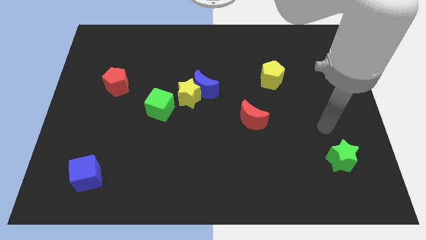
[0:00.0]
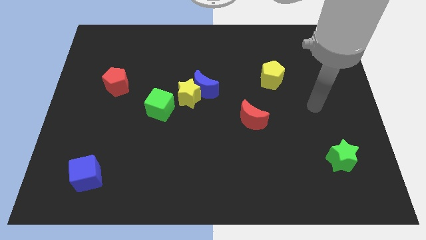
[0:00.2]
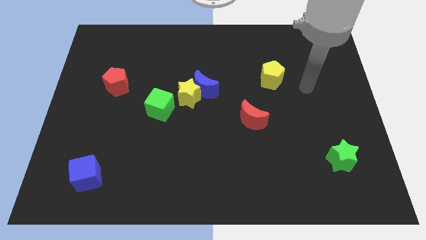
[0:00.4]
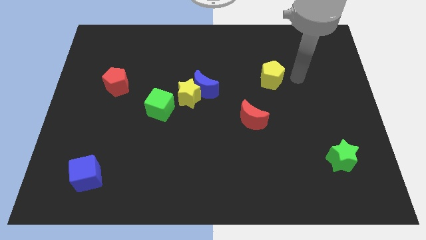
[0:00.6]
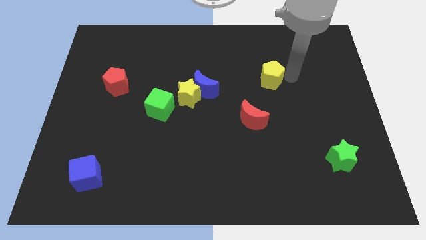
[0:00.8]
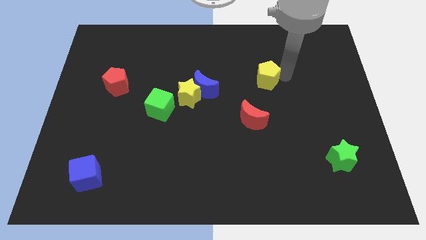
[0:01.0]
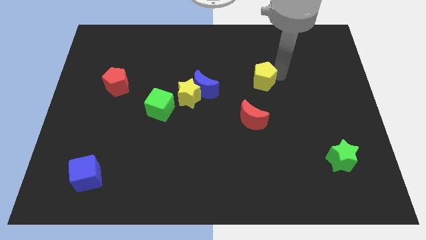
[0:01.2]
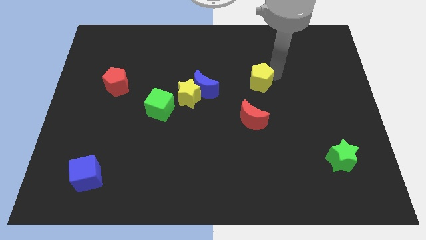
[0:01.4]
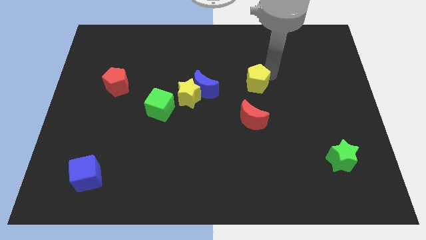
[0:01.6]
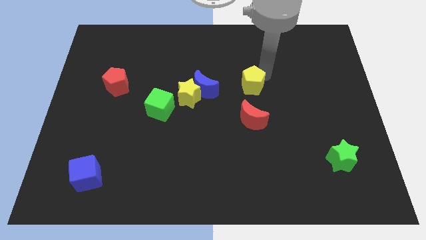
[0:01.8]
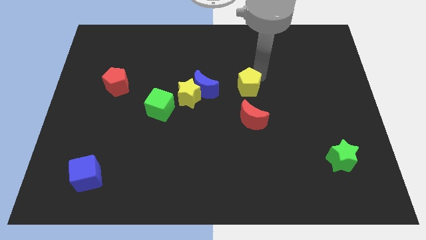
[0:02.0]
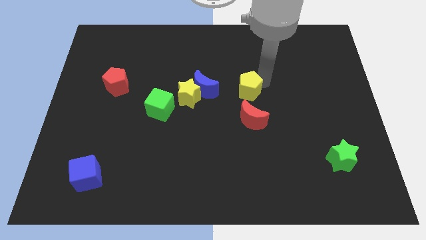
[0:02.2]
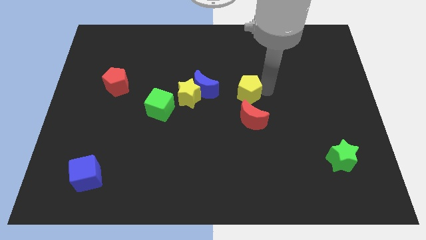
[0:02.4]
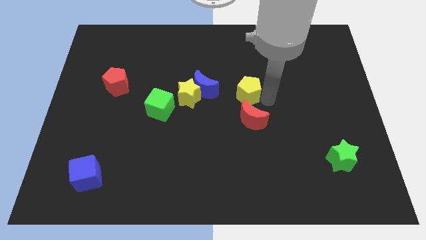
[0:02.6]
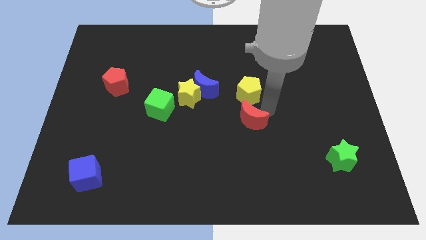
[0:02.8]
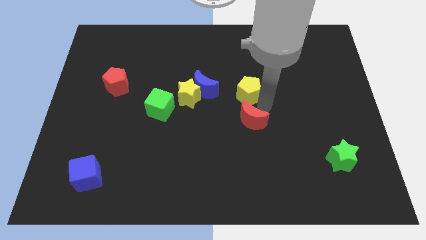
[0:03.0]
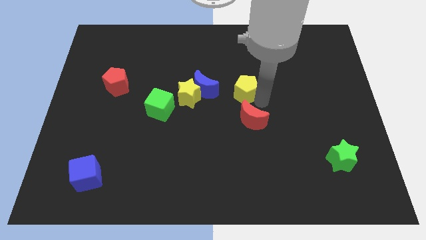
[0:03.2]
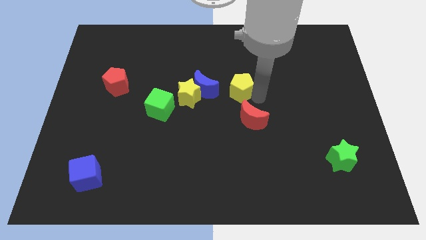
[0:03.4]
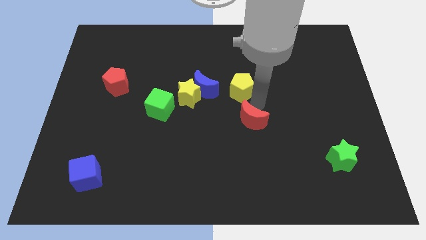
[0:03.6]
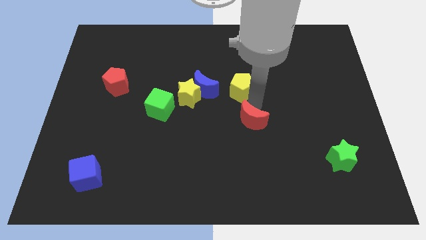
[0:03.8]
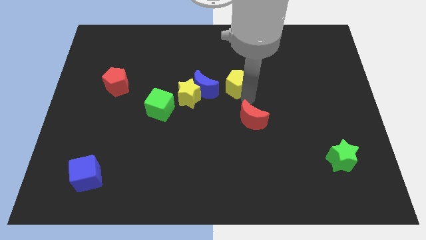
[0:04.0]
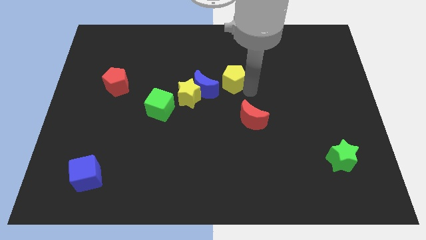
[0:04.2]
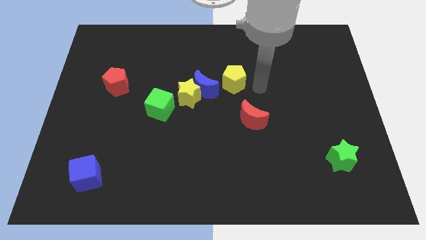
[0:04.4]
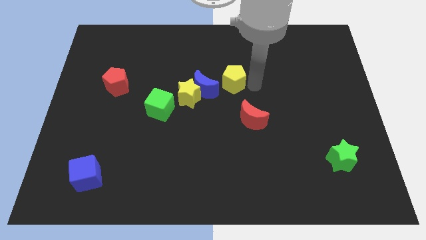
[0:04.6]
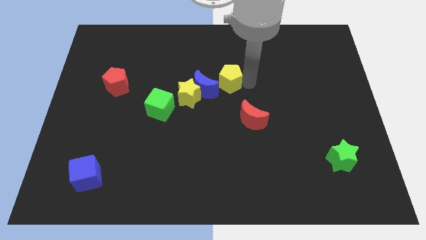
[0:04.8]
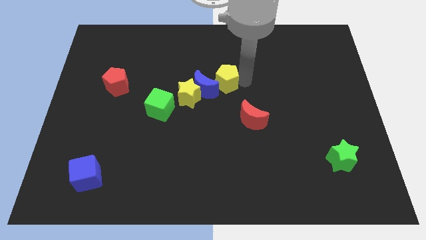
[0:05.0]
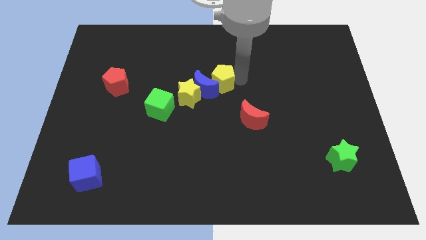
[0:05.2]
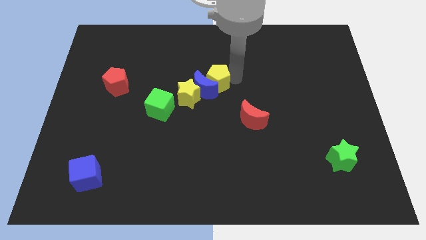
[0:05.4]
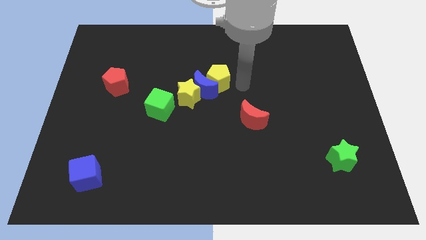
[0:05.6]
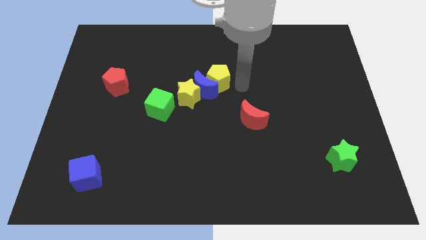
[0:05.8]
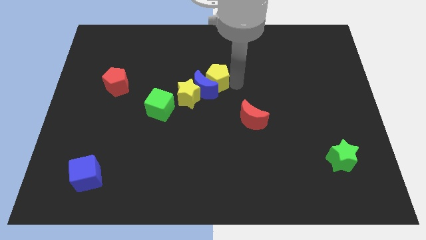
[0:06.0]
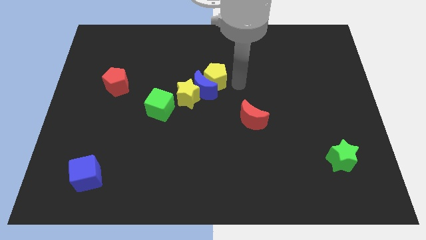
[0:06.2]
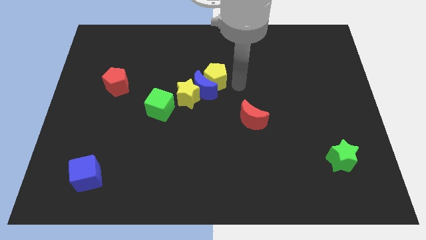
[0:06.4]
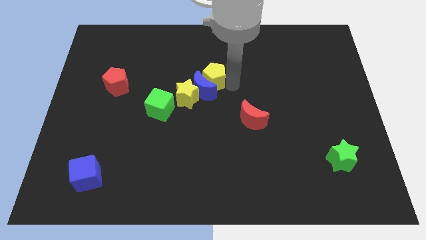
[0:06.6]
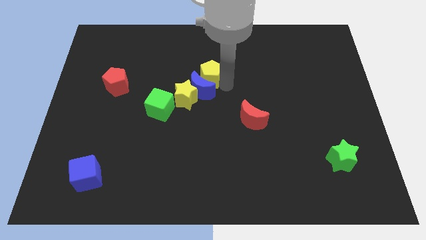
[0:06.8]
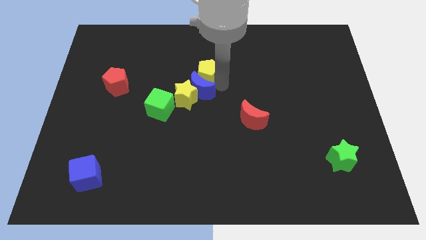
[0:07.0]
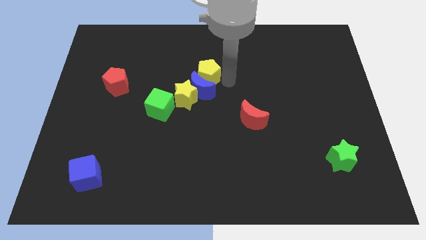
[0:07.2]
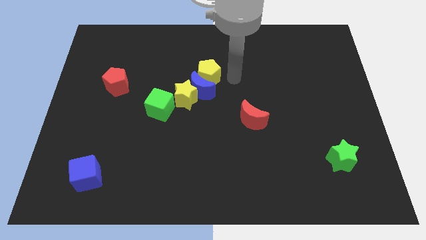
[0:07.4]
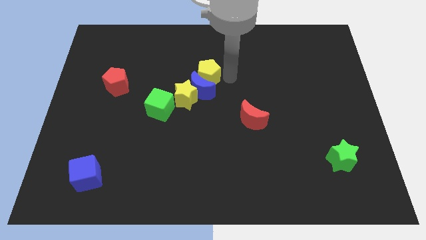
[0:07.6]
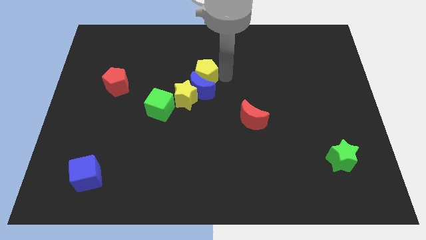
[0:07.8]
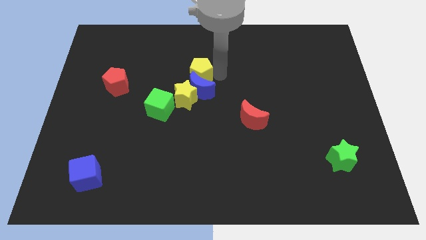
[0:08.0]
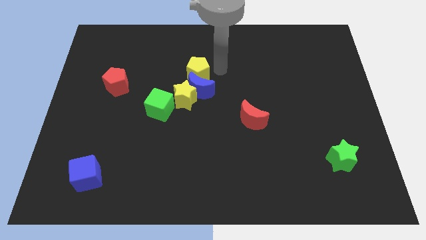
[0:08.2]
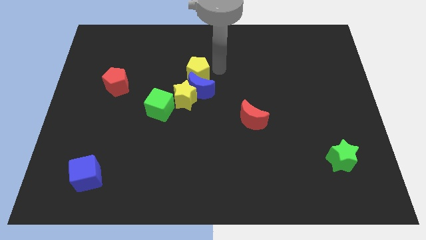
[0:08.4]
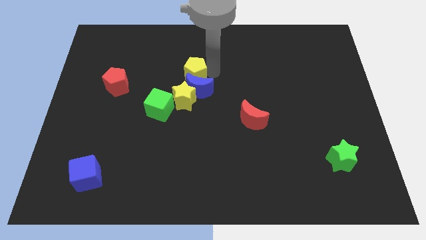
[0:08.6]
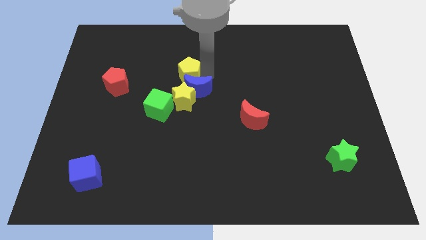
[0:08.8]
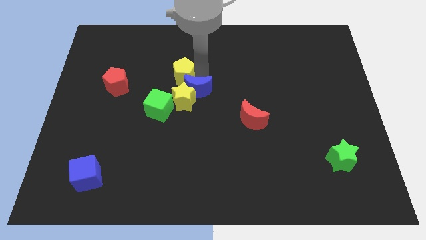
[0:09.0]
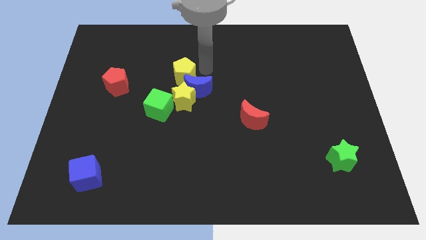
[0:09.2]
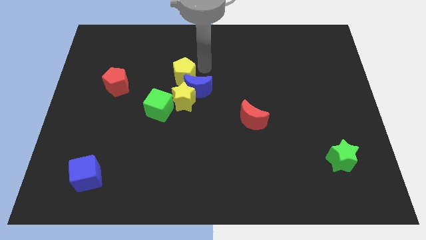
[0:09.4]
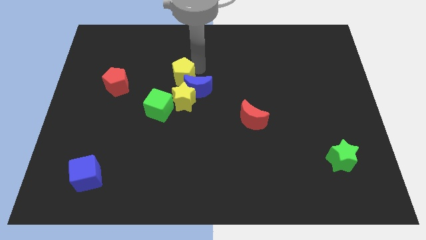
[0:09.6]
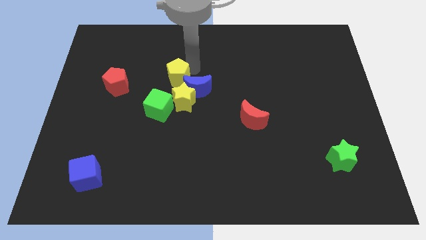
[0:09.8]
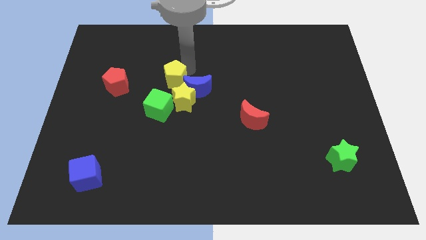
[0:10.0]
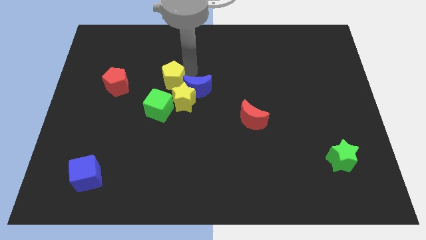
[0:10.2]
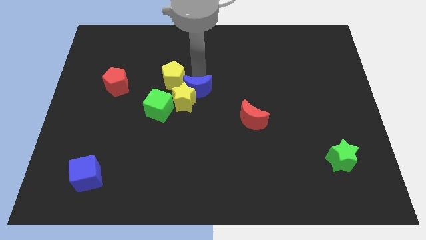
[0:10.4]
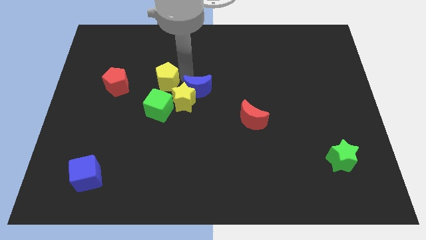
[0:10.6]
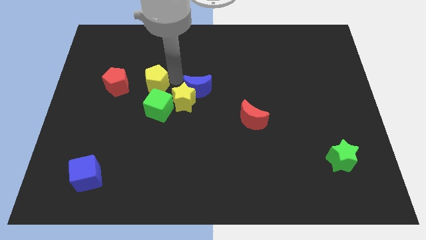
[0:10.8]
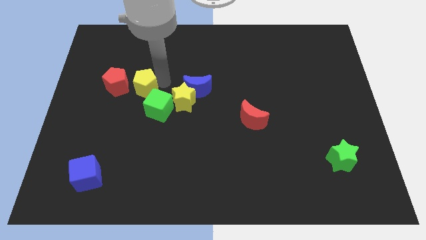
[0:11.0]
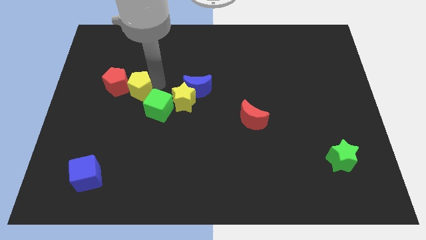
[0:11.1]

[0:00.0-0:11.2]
slide the yellow pentagon to the red pentagon

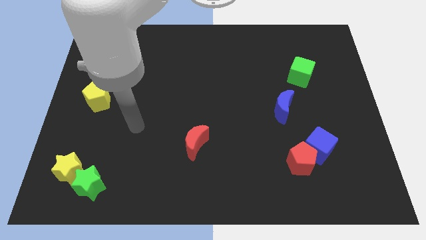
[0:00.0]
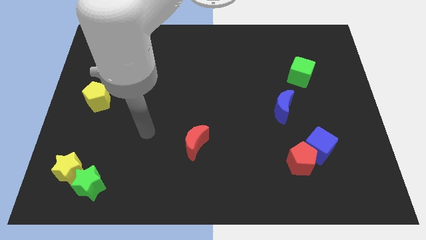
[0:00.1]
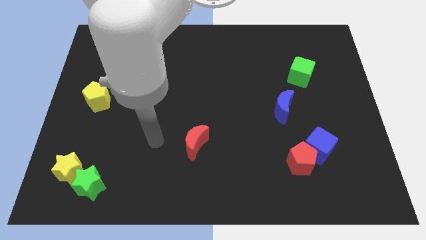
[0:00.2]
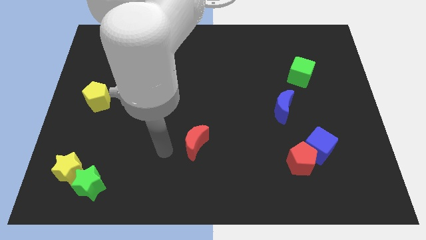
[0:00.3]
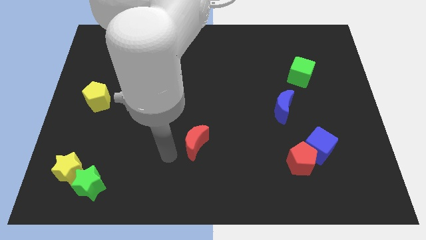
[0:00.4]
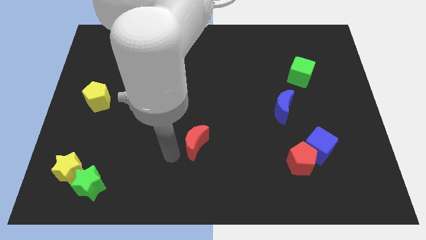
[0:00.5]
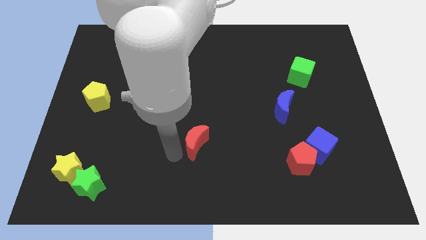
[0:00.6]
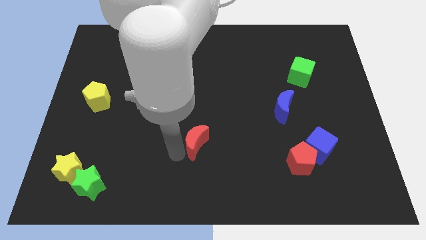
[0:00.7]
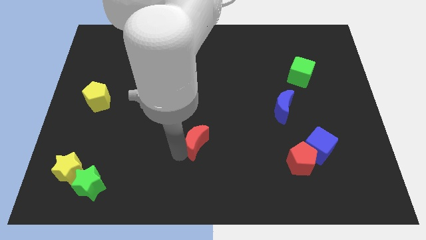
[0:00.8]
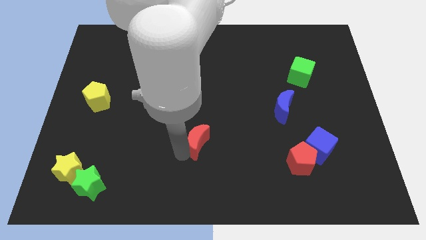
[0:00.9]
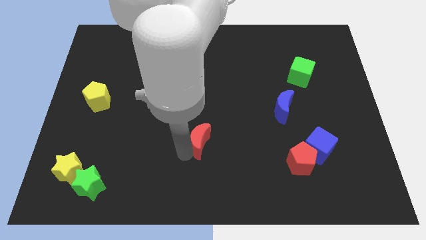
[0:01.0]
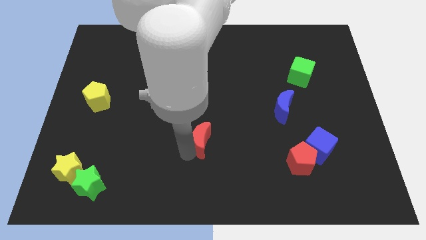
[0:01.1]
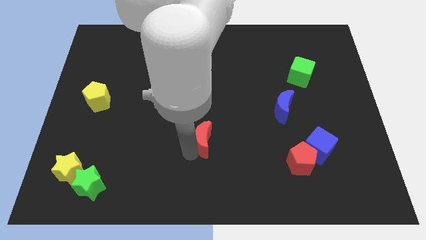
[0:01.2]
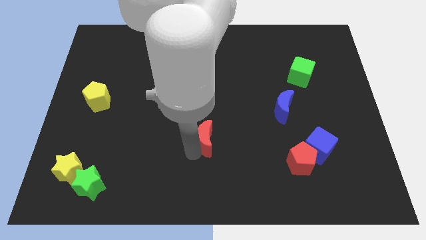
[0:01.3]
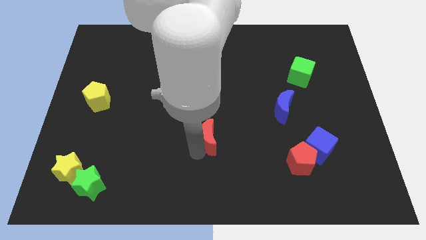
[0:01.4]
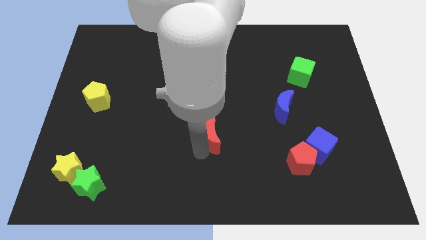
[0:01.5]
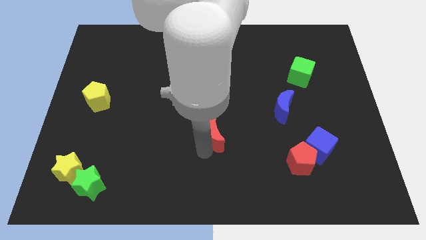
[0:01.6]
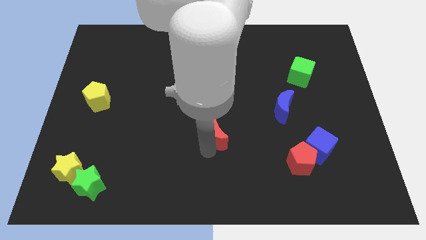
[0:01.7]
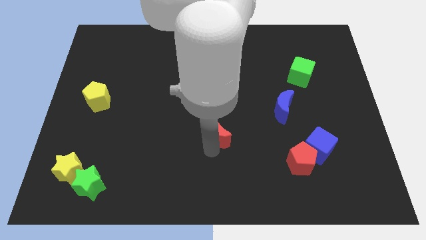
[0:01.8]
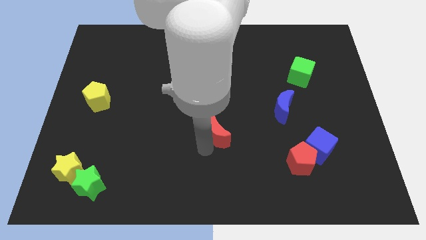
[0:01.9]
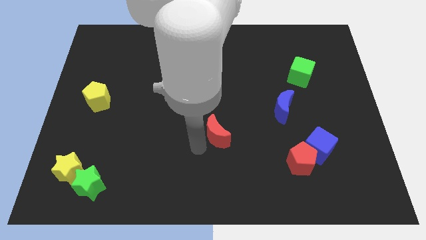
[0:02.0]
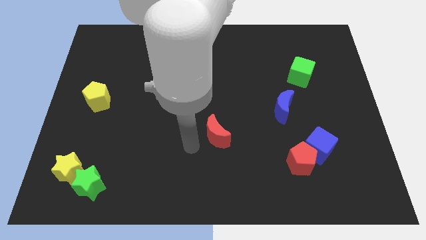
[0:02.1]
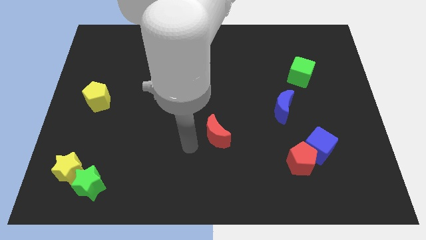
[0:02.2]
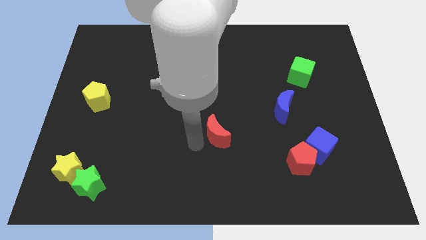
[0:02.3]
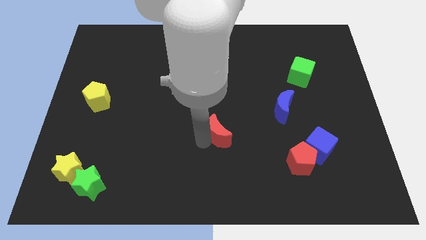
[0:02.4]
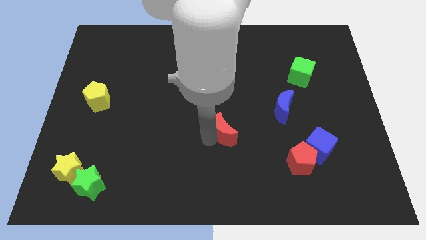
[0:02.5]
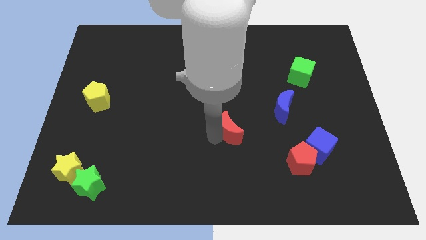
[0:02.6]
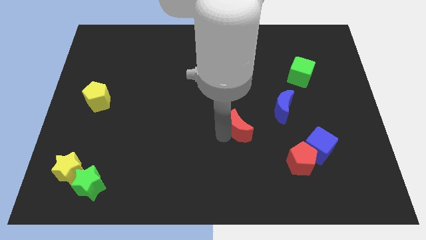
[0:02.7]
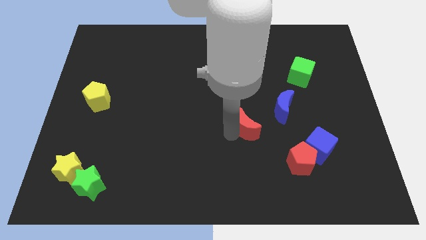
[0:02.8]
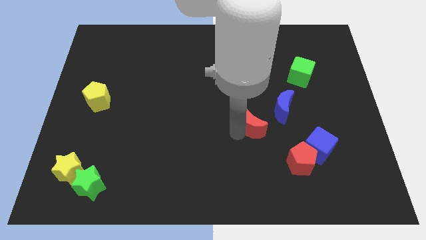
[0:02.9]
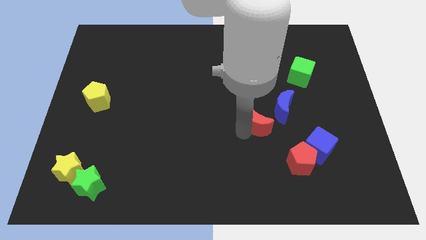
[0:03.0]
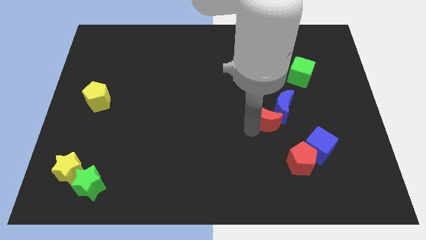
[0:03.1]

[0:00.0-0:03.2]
put the red moon towards the blue moon
